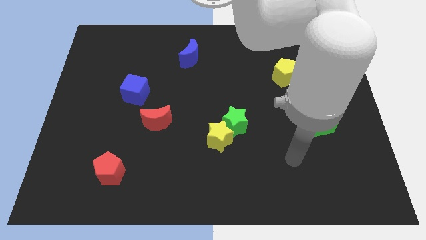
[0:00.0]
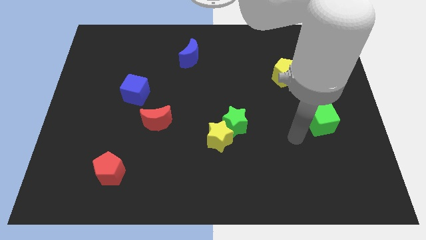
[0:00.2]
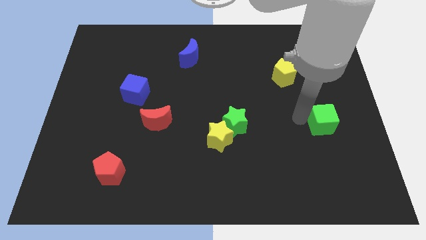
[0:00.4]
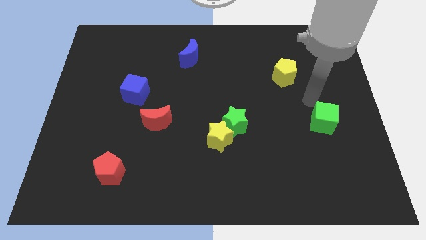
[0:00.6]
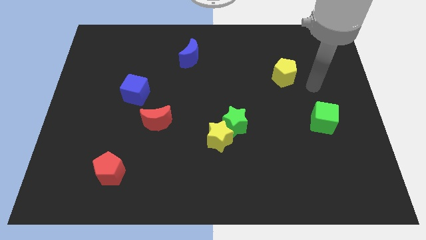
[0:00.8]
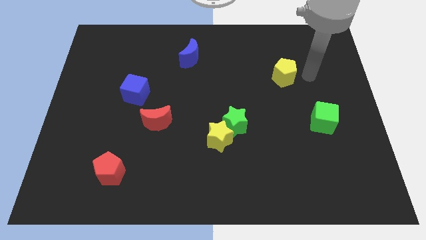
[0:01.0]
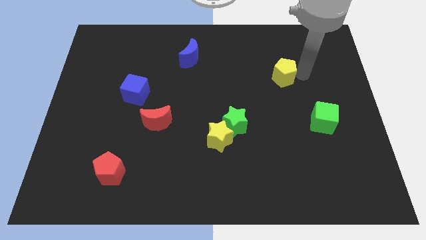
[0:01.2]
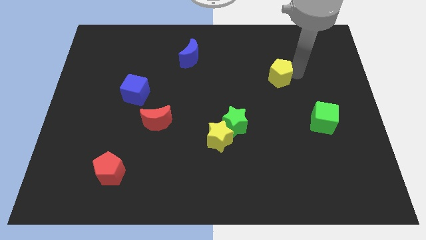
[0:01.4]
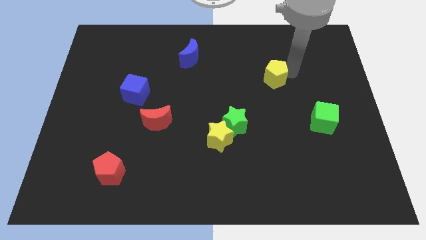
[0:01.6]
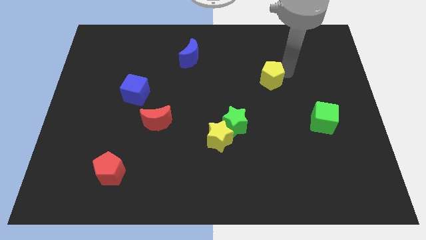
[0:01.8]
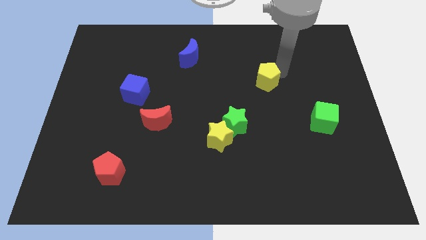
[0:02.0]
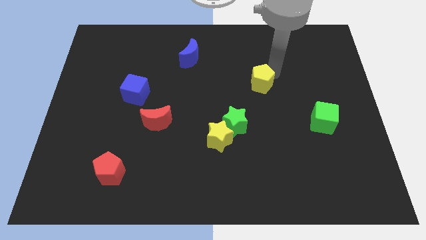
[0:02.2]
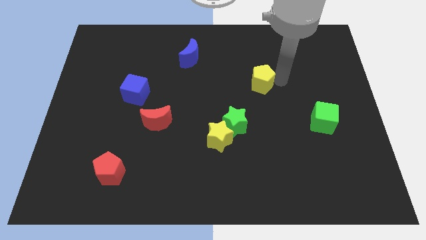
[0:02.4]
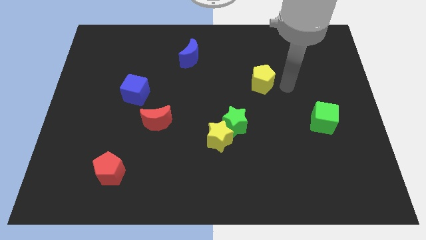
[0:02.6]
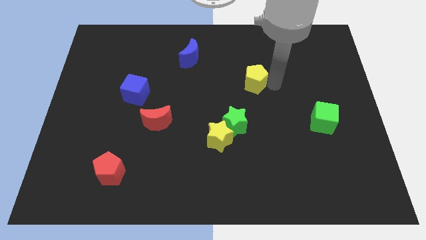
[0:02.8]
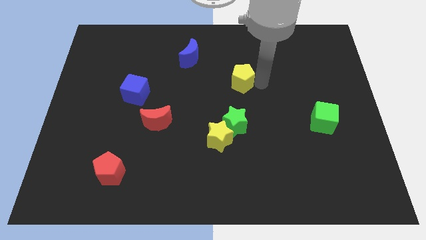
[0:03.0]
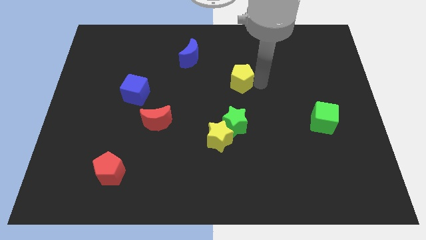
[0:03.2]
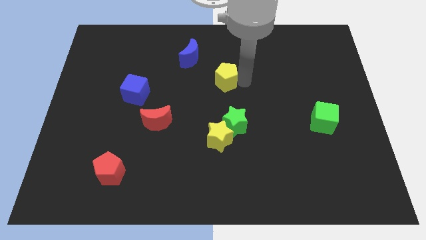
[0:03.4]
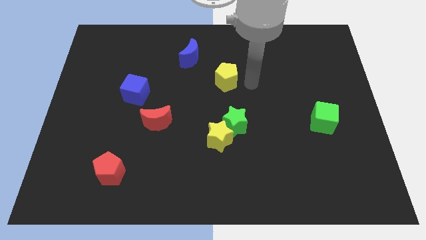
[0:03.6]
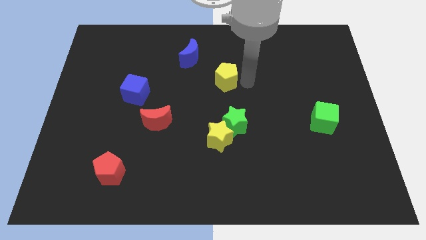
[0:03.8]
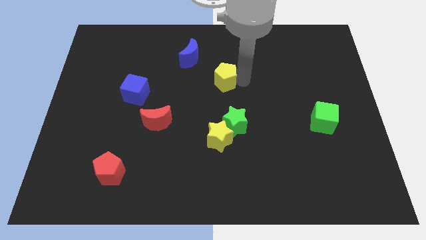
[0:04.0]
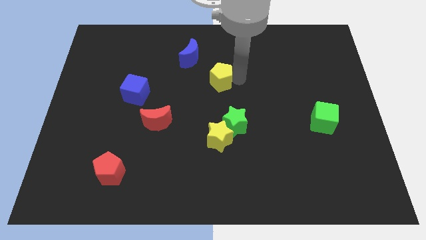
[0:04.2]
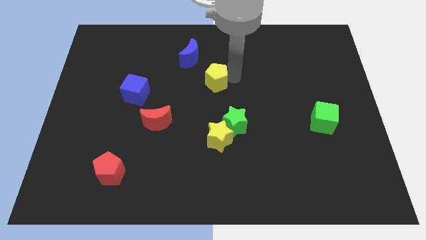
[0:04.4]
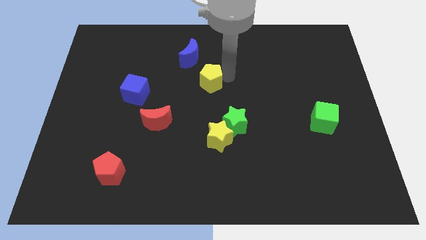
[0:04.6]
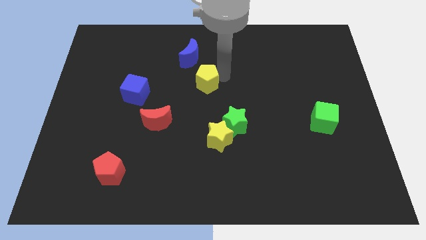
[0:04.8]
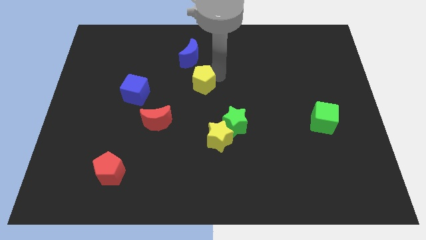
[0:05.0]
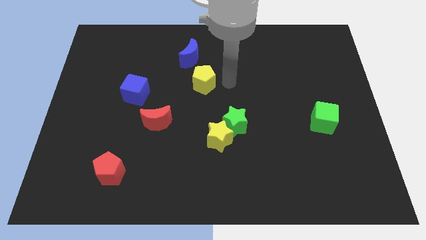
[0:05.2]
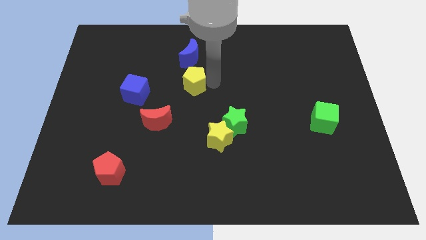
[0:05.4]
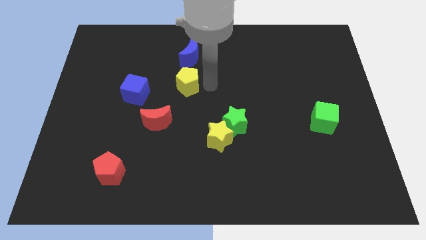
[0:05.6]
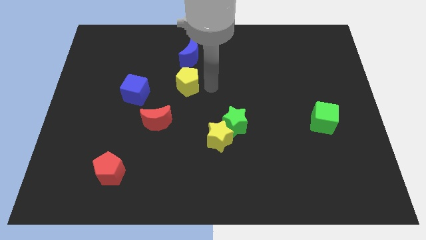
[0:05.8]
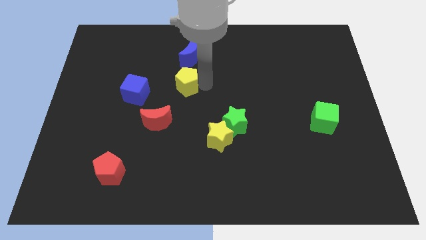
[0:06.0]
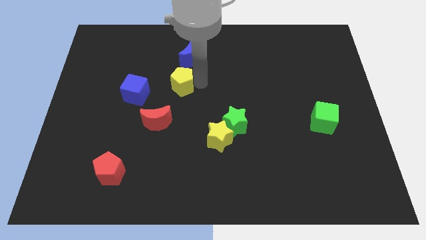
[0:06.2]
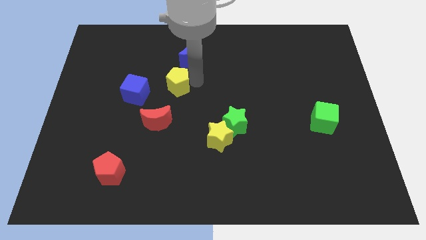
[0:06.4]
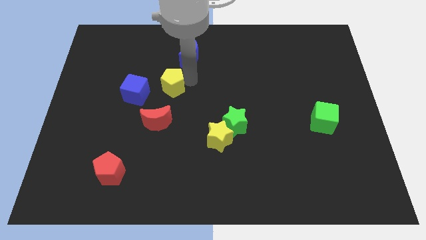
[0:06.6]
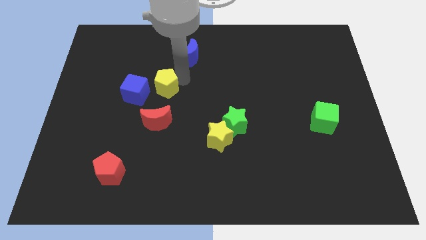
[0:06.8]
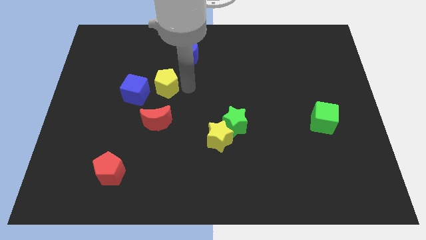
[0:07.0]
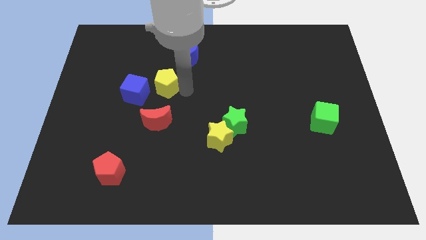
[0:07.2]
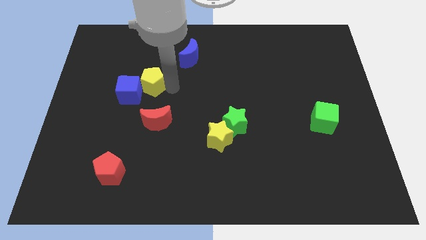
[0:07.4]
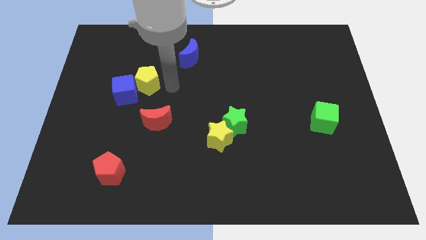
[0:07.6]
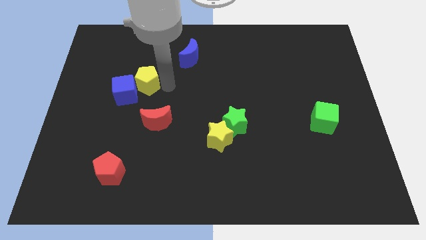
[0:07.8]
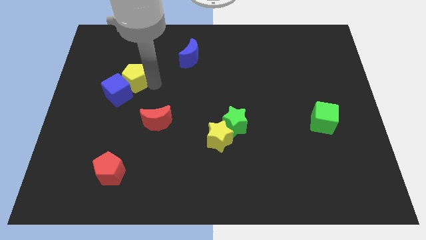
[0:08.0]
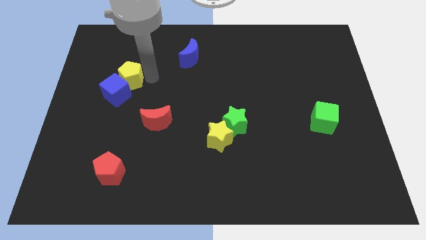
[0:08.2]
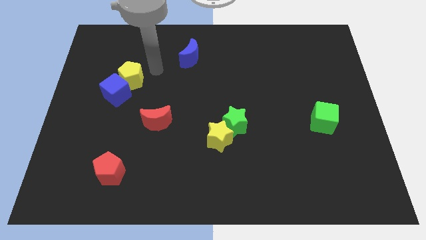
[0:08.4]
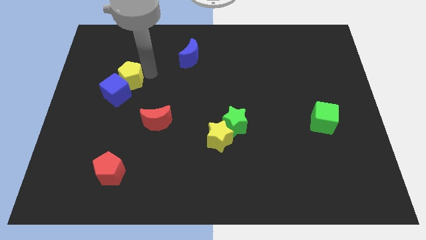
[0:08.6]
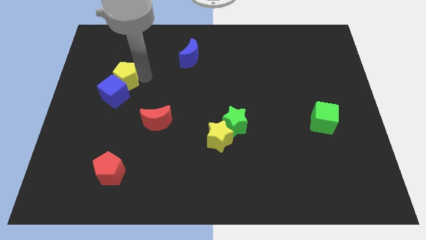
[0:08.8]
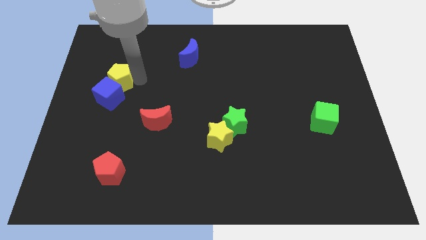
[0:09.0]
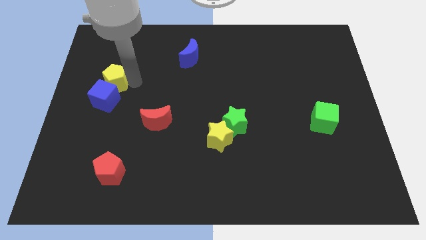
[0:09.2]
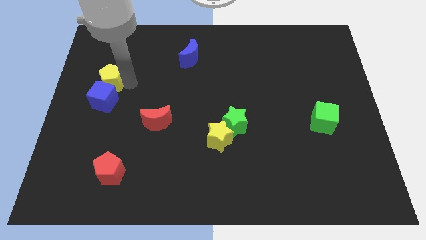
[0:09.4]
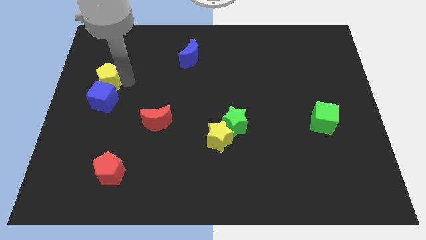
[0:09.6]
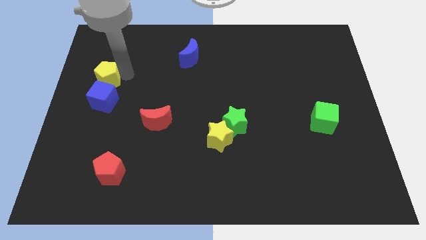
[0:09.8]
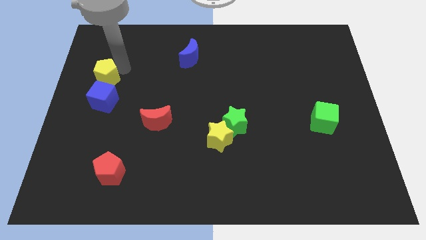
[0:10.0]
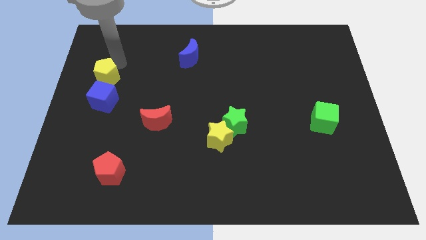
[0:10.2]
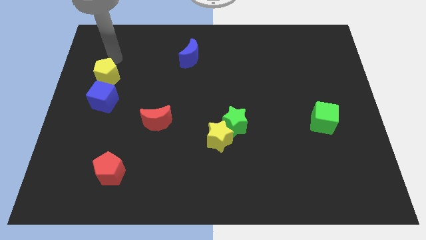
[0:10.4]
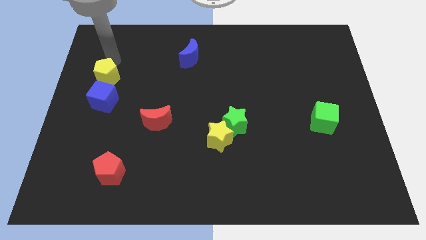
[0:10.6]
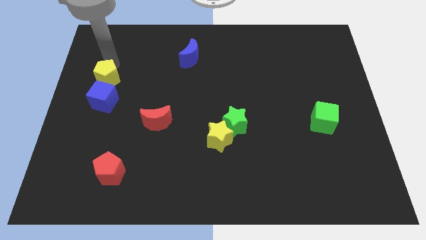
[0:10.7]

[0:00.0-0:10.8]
put the yellow pentagon to the left side of the board

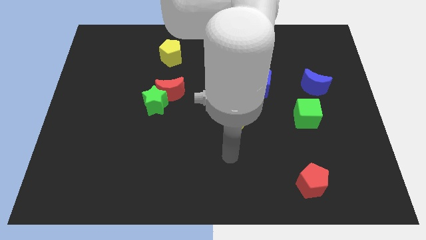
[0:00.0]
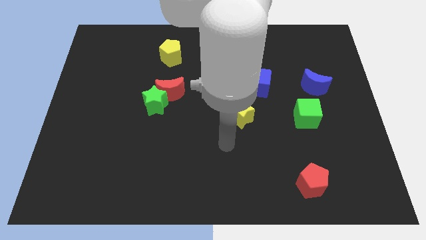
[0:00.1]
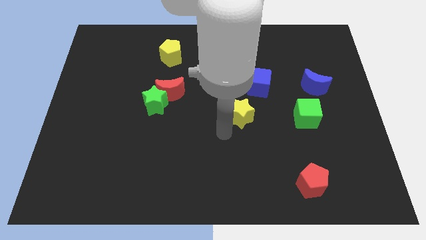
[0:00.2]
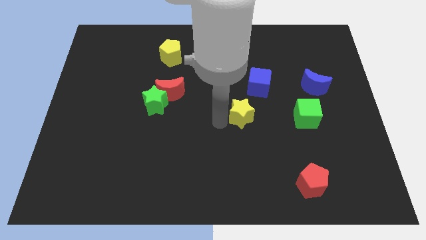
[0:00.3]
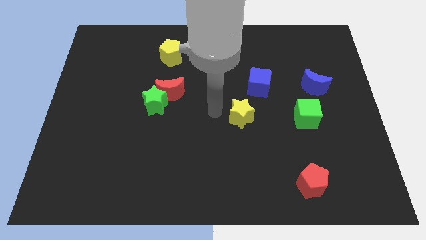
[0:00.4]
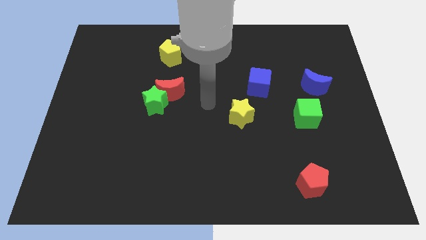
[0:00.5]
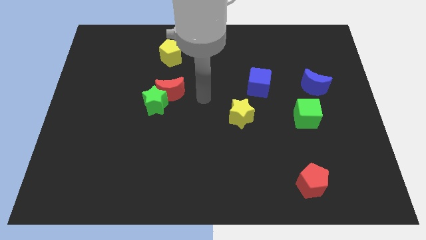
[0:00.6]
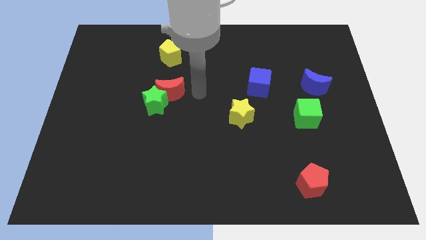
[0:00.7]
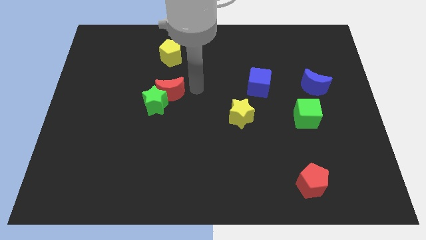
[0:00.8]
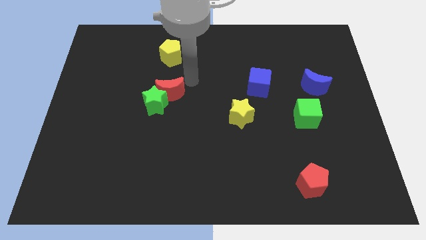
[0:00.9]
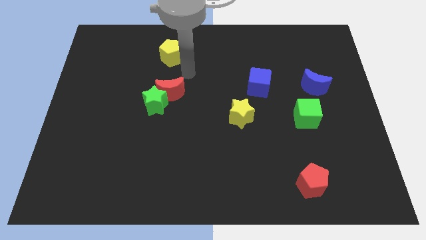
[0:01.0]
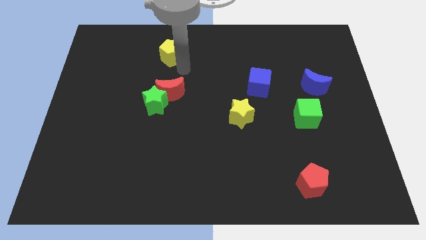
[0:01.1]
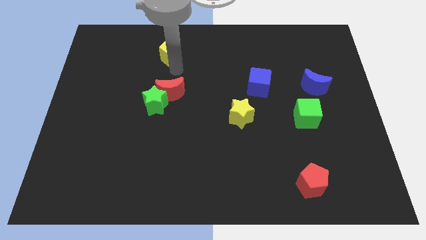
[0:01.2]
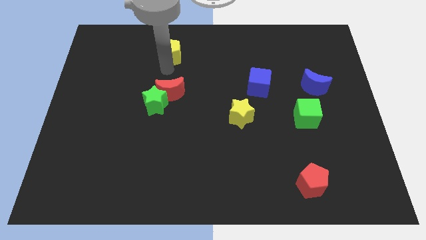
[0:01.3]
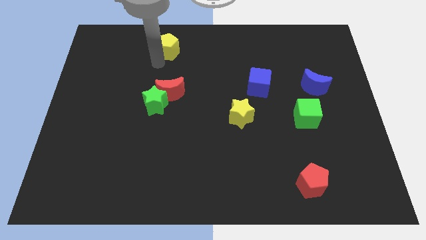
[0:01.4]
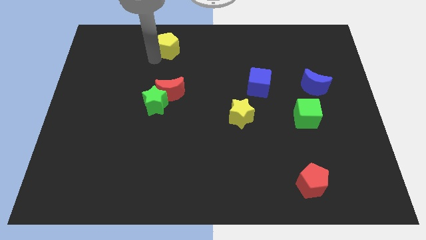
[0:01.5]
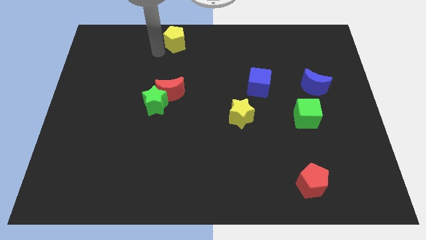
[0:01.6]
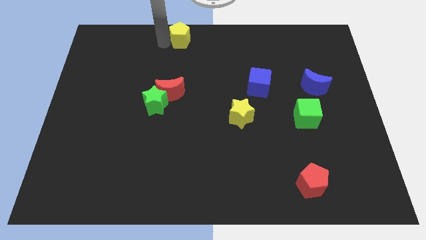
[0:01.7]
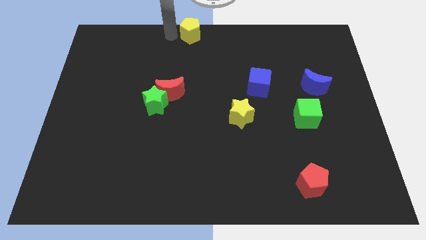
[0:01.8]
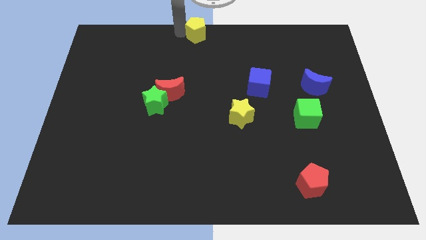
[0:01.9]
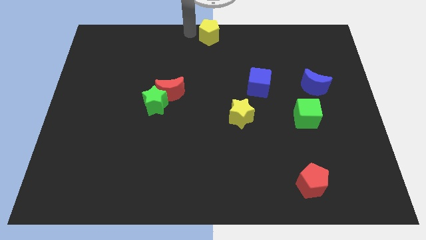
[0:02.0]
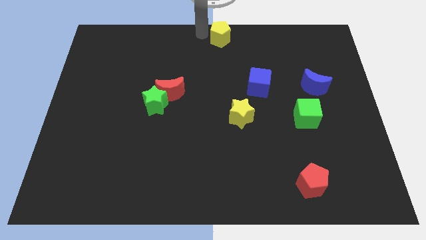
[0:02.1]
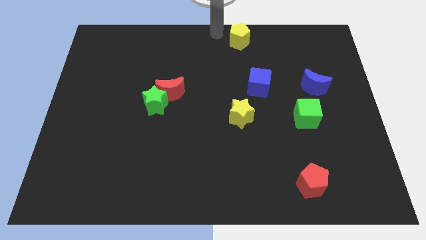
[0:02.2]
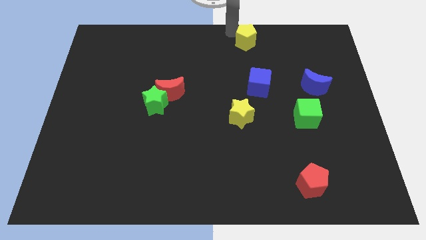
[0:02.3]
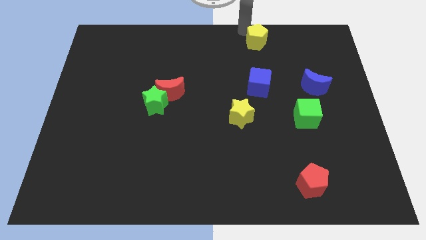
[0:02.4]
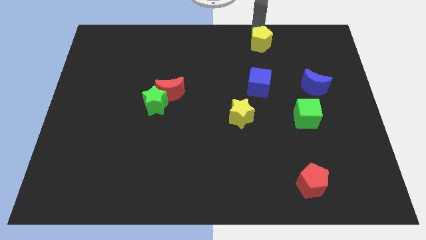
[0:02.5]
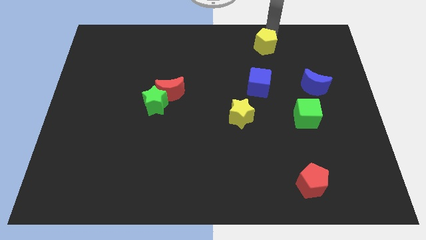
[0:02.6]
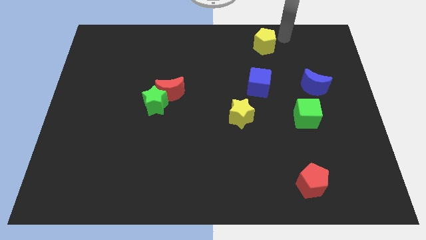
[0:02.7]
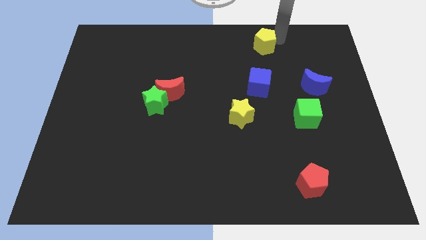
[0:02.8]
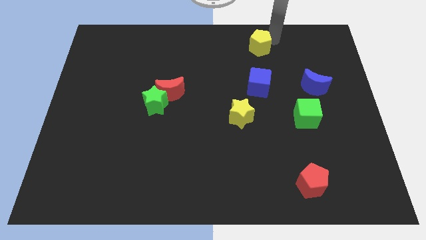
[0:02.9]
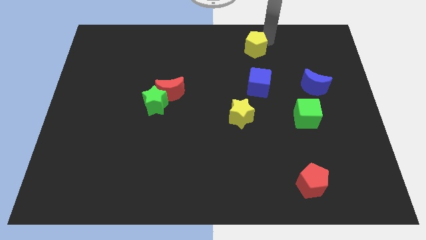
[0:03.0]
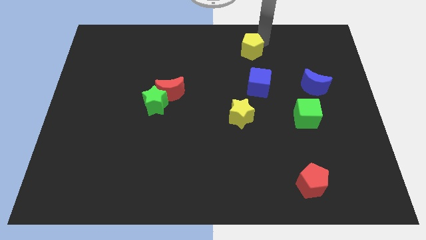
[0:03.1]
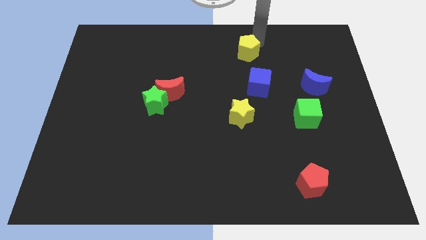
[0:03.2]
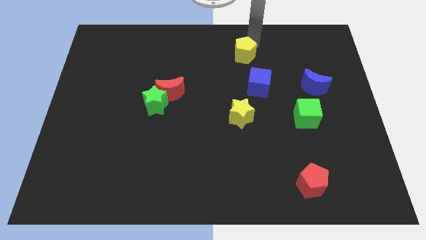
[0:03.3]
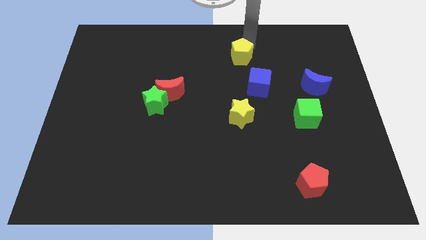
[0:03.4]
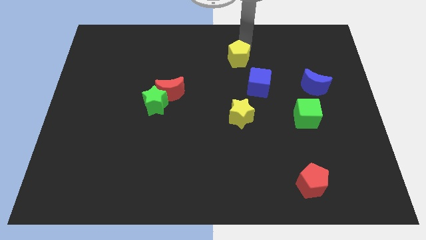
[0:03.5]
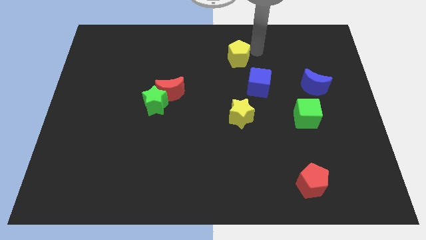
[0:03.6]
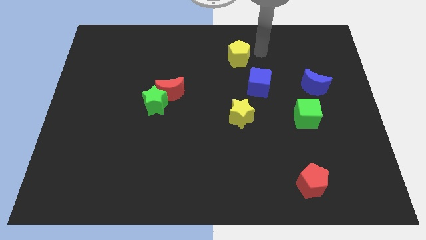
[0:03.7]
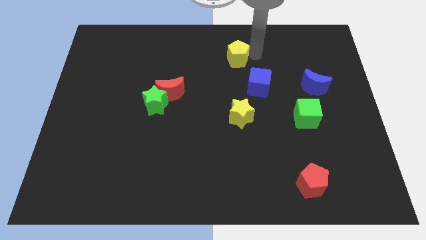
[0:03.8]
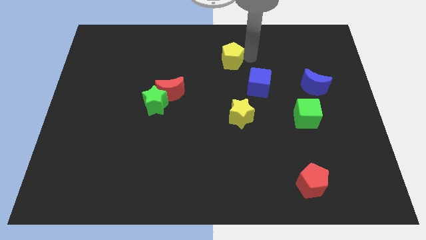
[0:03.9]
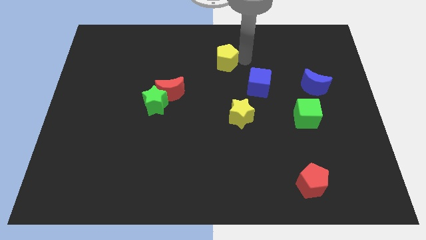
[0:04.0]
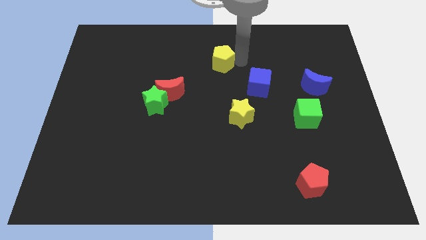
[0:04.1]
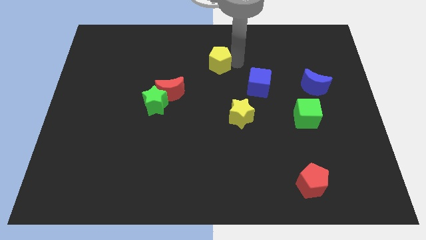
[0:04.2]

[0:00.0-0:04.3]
slide the yellow pentagon to the center
